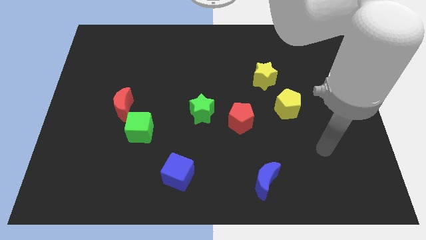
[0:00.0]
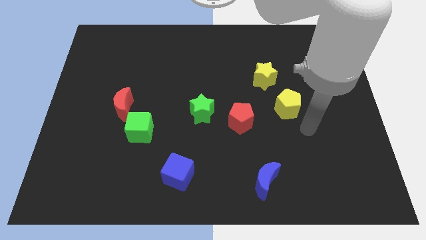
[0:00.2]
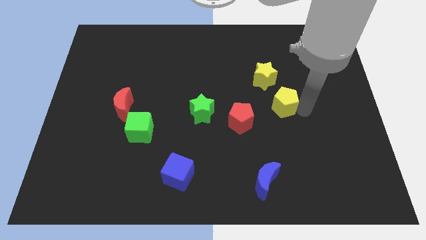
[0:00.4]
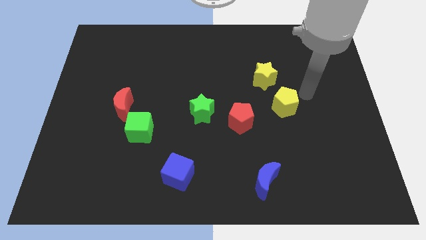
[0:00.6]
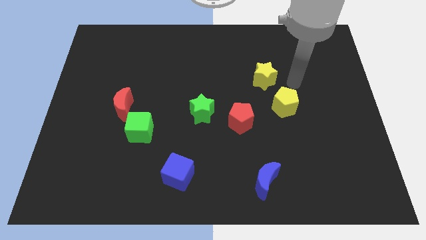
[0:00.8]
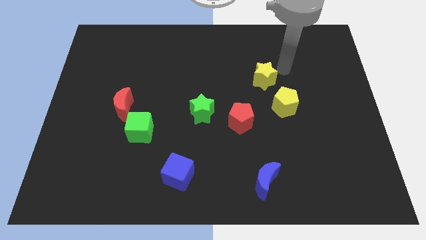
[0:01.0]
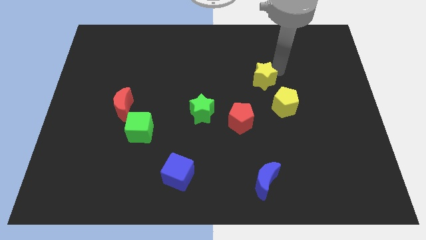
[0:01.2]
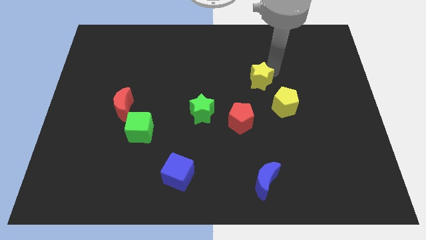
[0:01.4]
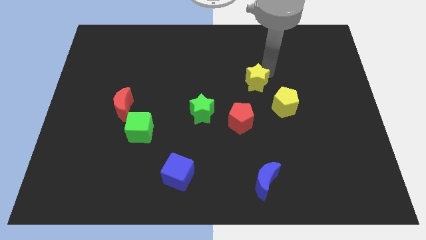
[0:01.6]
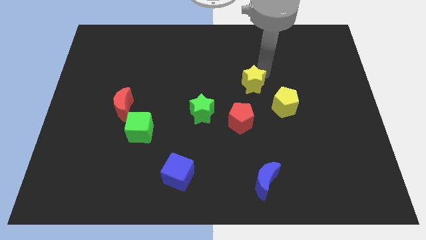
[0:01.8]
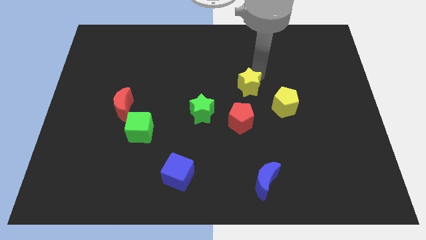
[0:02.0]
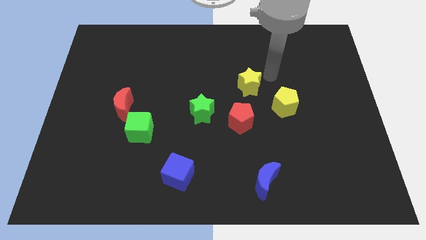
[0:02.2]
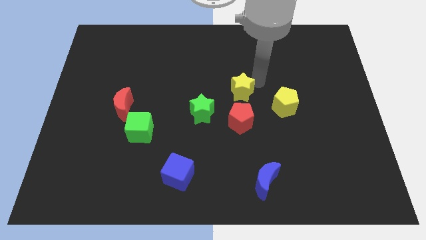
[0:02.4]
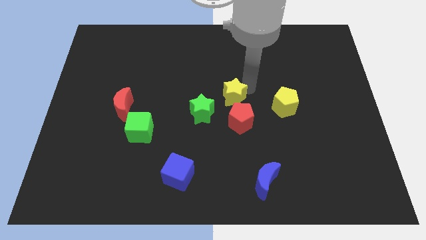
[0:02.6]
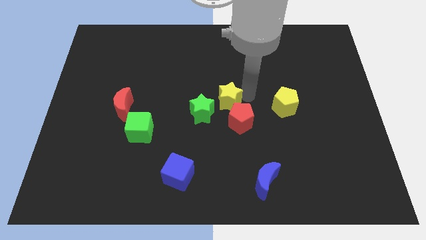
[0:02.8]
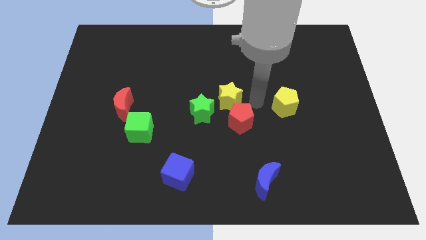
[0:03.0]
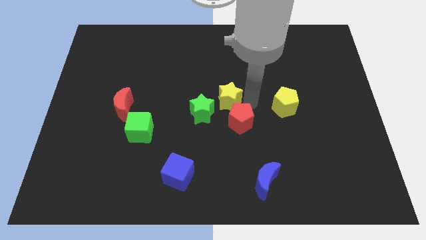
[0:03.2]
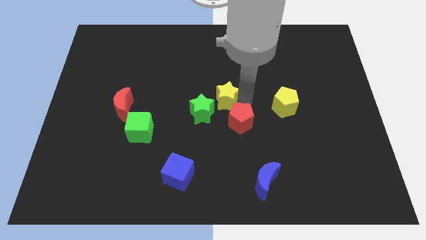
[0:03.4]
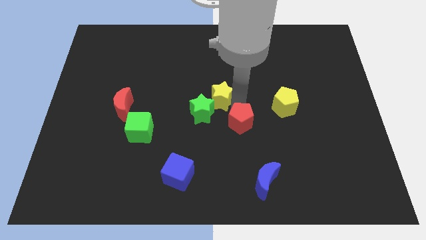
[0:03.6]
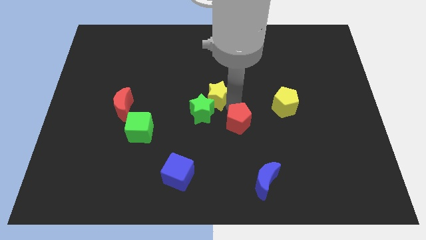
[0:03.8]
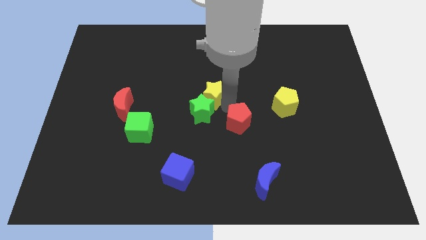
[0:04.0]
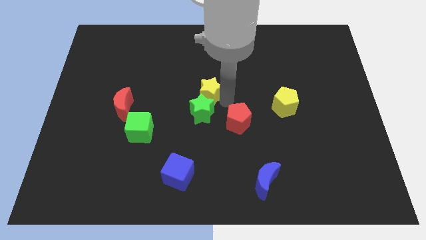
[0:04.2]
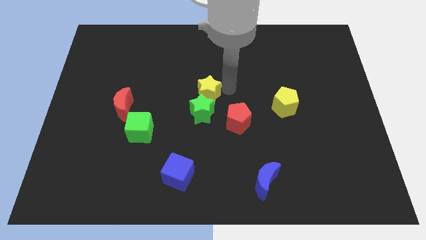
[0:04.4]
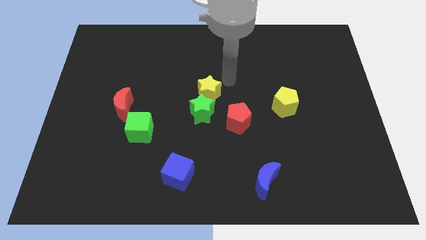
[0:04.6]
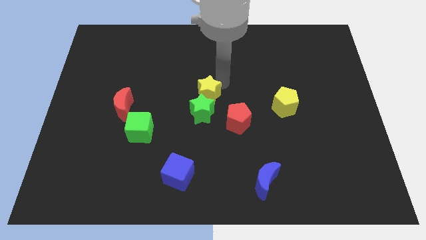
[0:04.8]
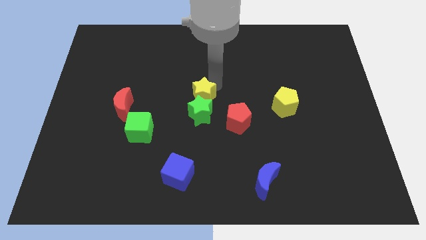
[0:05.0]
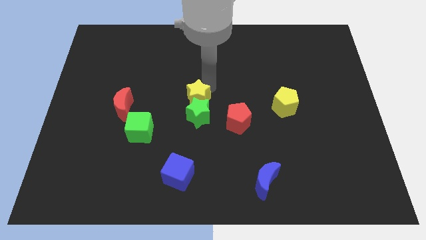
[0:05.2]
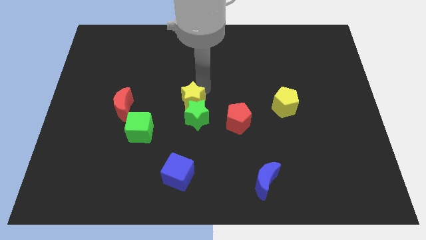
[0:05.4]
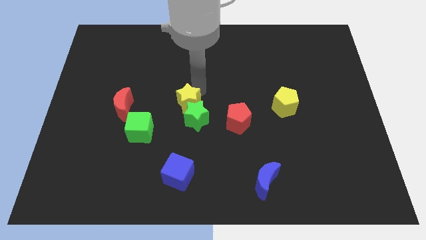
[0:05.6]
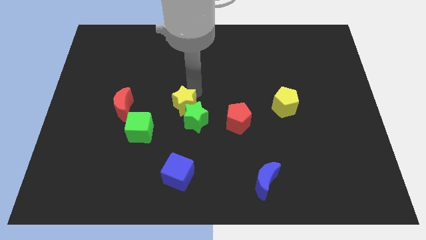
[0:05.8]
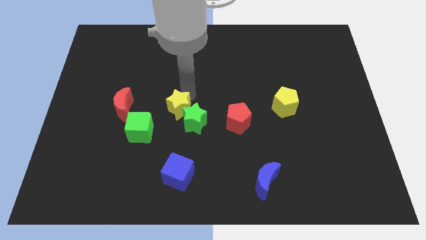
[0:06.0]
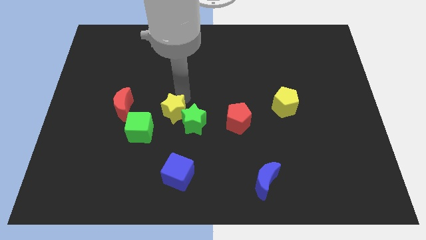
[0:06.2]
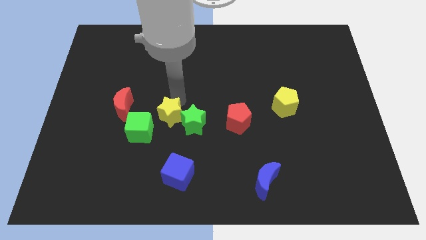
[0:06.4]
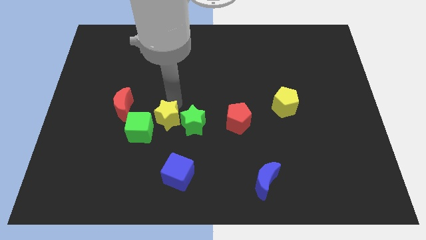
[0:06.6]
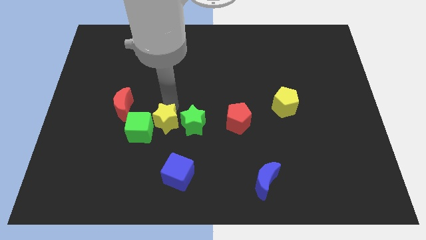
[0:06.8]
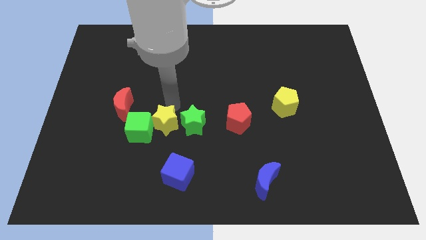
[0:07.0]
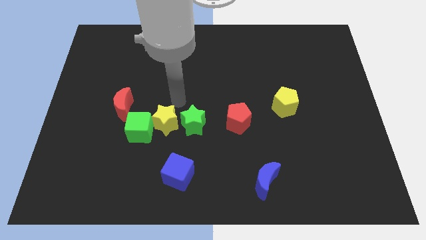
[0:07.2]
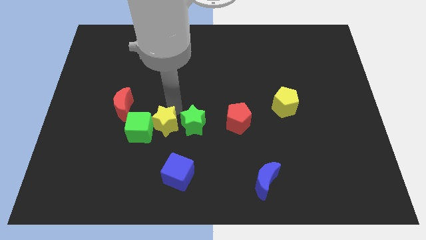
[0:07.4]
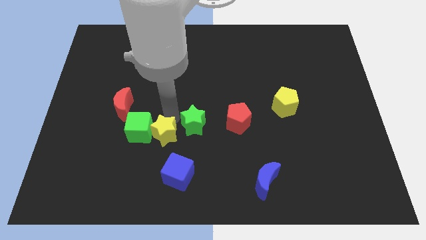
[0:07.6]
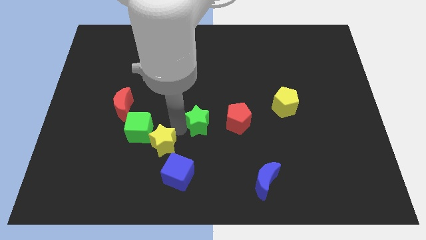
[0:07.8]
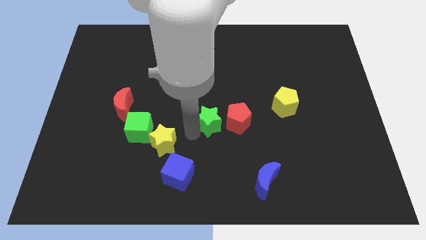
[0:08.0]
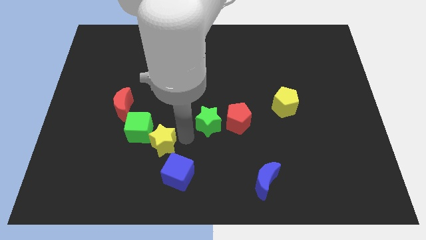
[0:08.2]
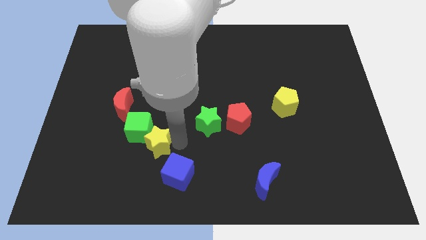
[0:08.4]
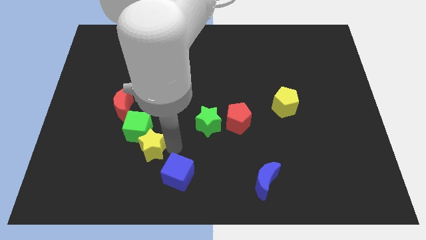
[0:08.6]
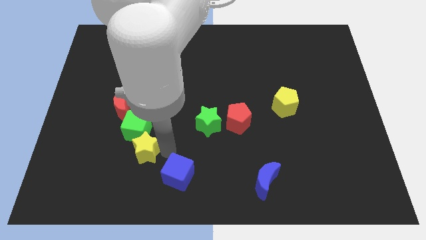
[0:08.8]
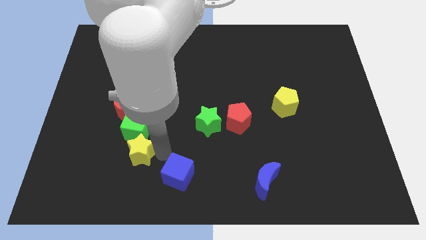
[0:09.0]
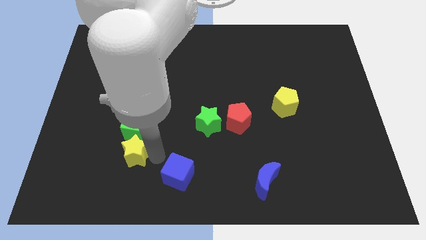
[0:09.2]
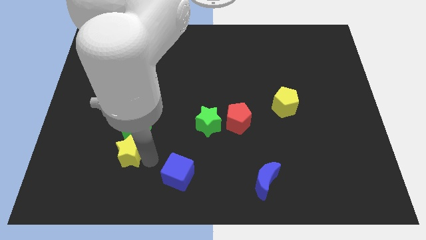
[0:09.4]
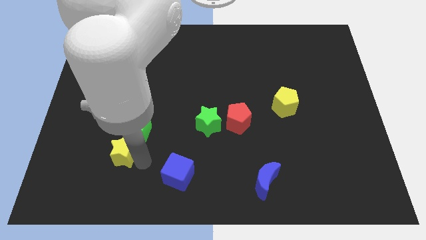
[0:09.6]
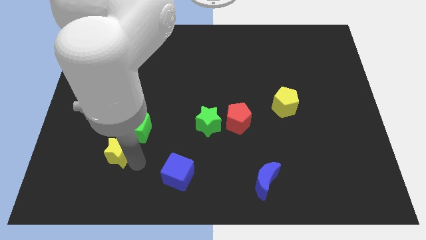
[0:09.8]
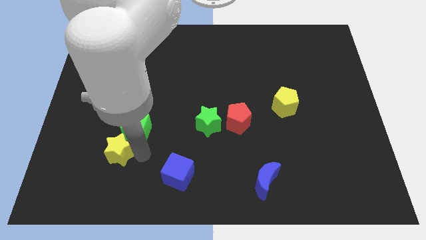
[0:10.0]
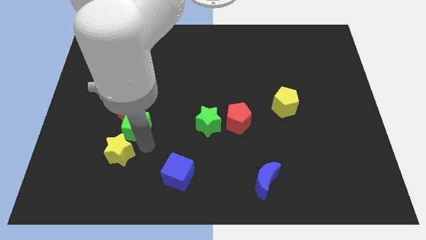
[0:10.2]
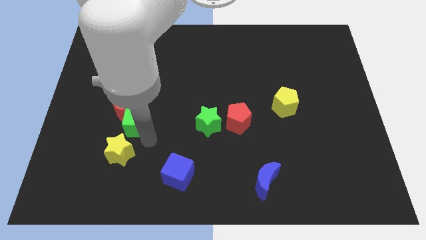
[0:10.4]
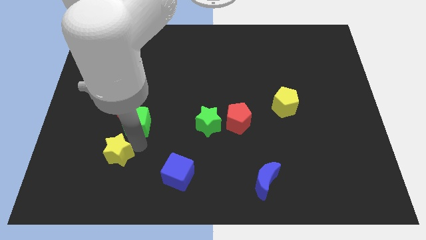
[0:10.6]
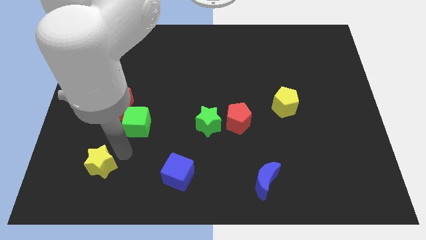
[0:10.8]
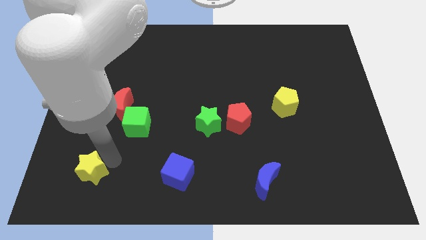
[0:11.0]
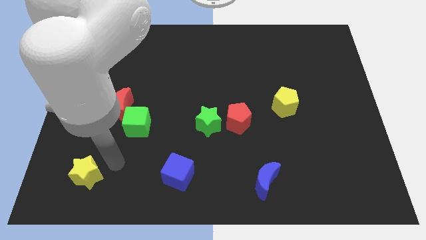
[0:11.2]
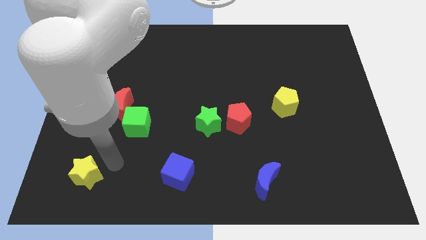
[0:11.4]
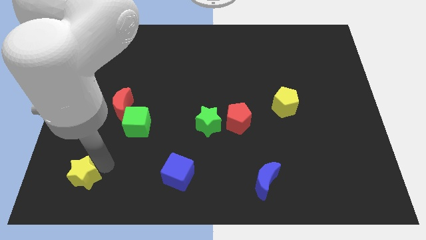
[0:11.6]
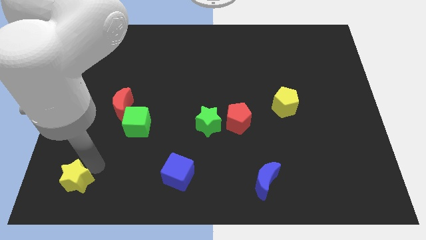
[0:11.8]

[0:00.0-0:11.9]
push the yellow star to the bottom left of the board

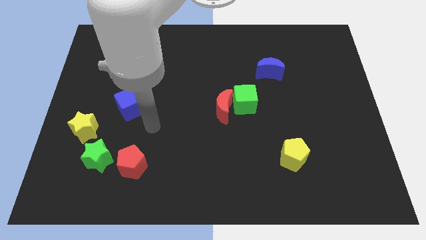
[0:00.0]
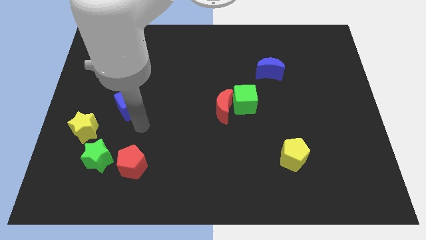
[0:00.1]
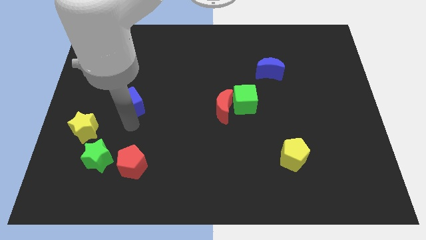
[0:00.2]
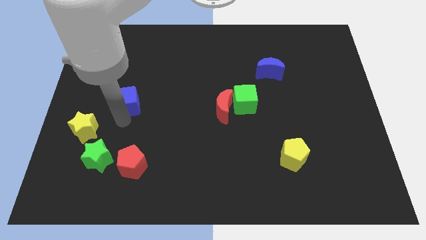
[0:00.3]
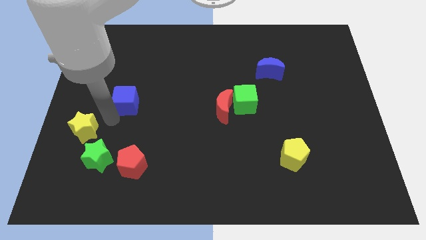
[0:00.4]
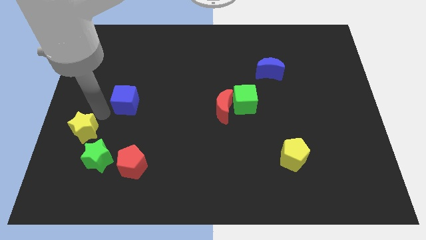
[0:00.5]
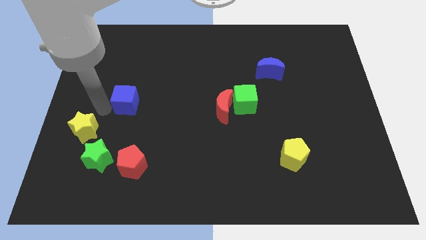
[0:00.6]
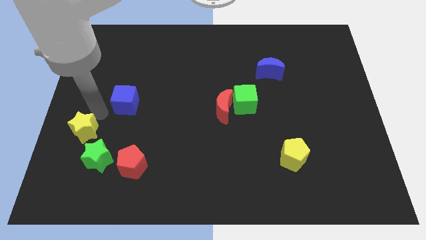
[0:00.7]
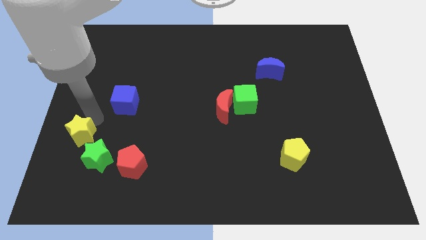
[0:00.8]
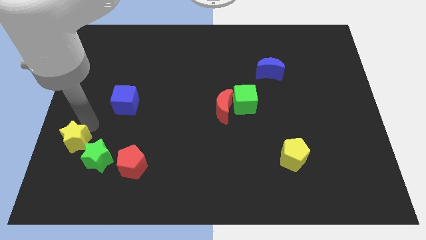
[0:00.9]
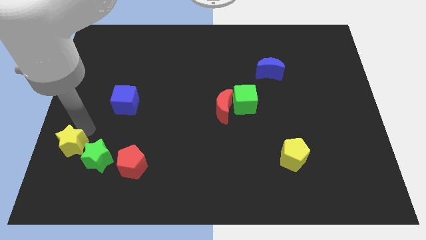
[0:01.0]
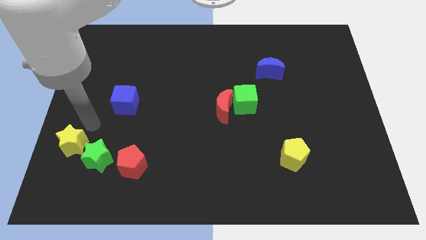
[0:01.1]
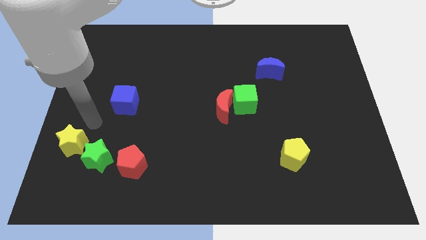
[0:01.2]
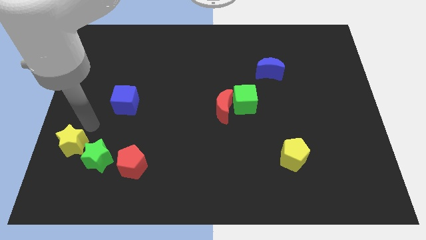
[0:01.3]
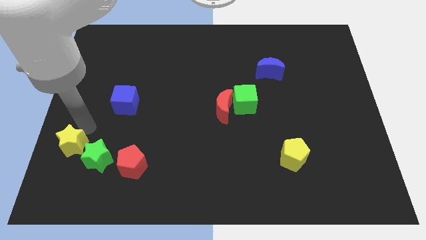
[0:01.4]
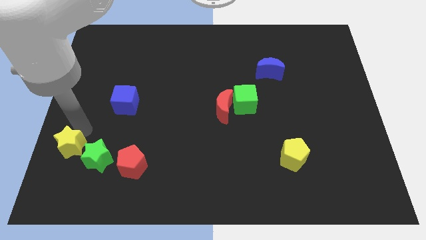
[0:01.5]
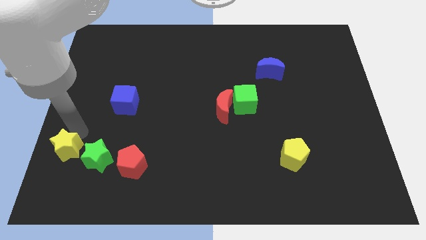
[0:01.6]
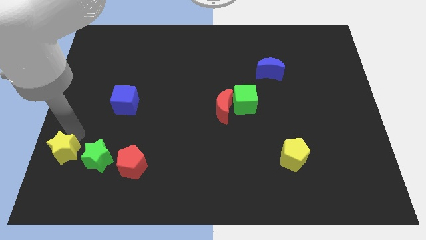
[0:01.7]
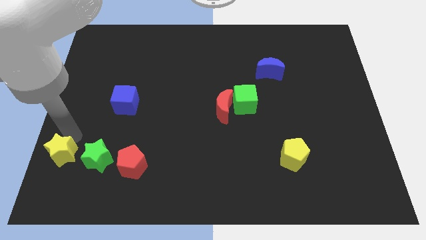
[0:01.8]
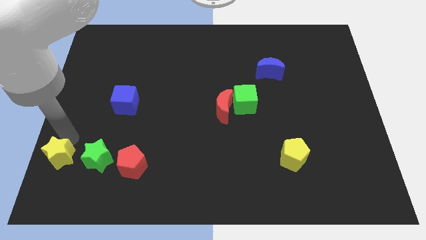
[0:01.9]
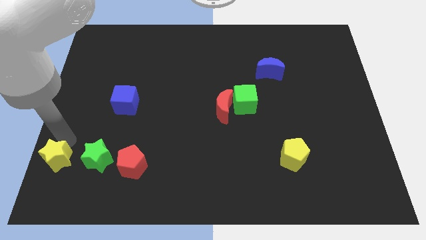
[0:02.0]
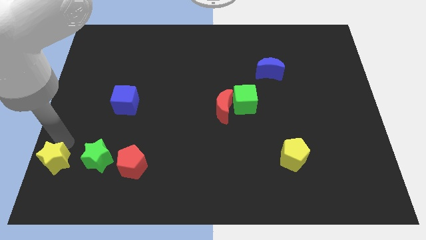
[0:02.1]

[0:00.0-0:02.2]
put the yellow star to the bottom left corner
